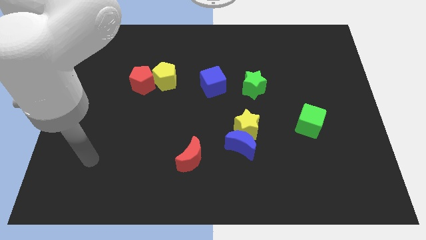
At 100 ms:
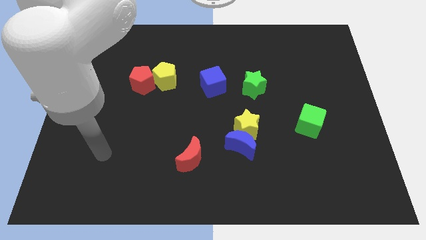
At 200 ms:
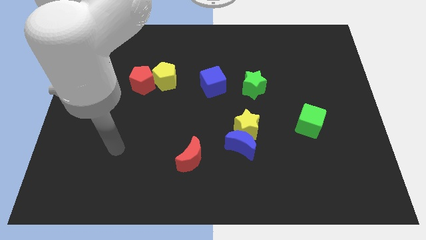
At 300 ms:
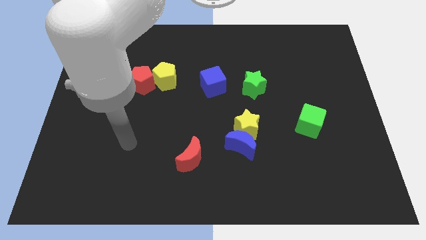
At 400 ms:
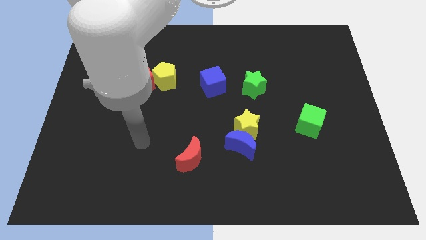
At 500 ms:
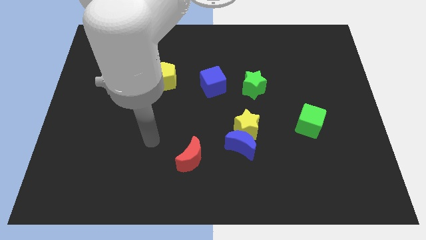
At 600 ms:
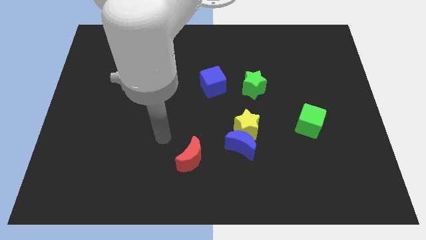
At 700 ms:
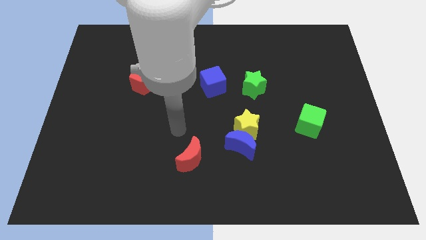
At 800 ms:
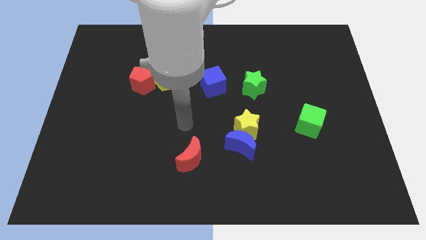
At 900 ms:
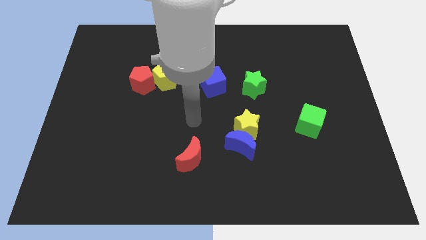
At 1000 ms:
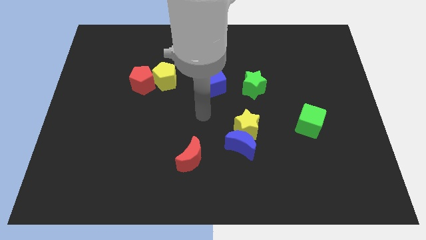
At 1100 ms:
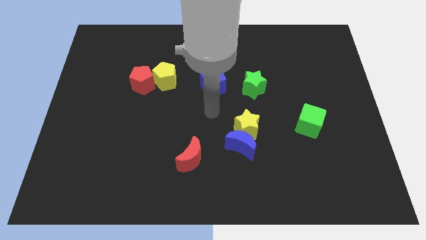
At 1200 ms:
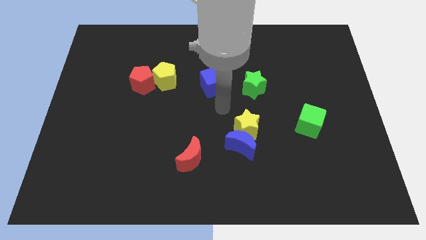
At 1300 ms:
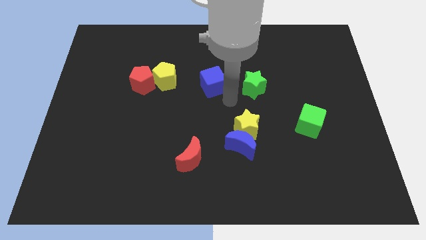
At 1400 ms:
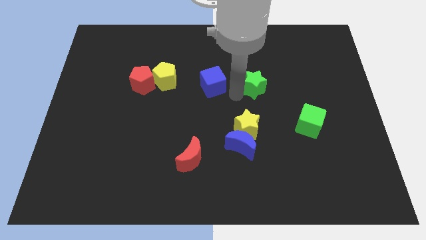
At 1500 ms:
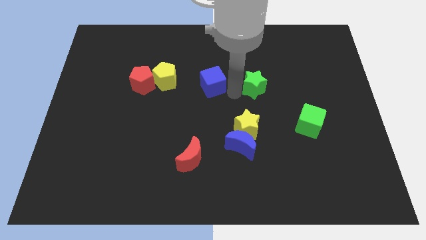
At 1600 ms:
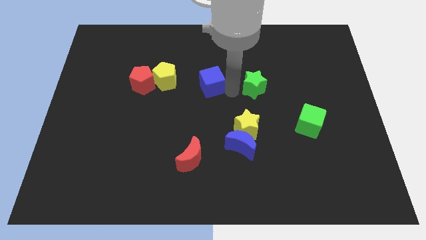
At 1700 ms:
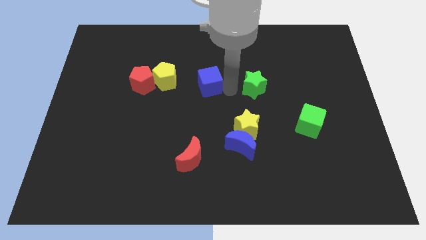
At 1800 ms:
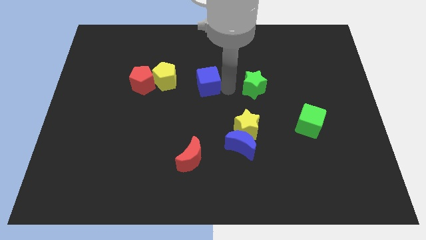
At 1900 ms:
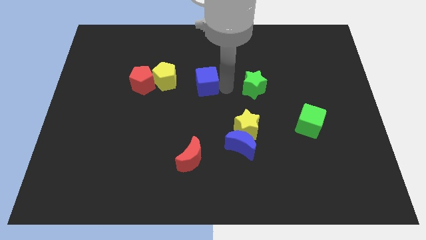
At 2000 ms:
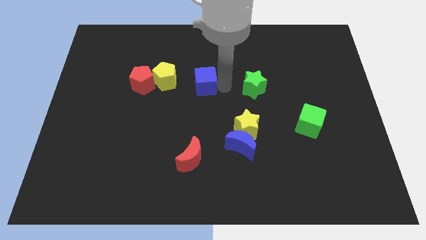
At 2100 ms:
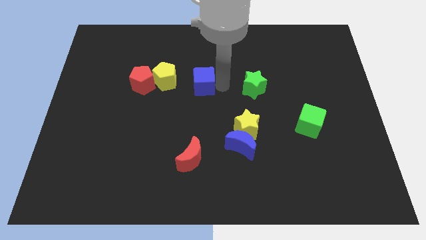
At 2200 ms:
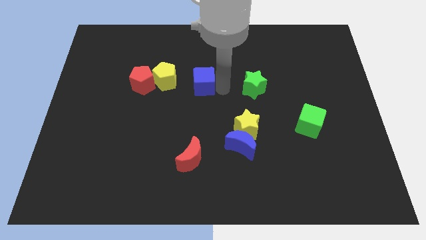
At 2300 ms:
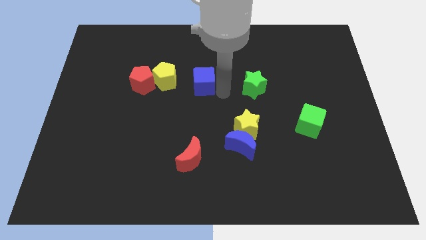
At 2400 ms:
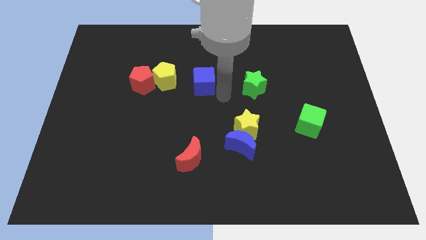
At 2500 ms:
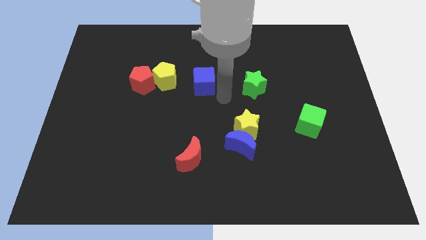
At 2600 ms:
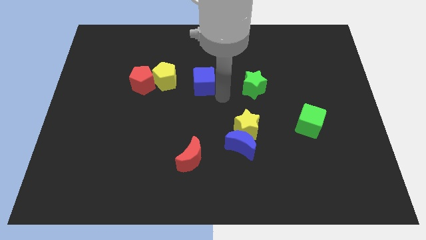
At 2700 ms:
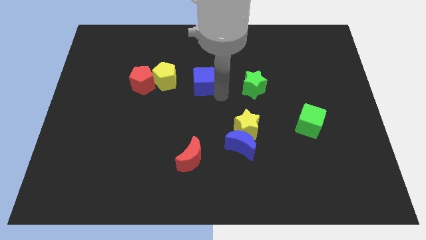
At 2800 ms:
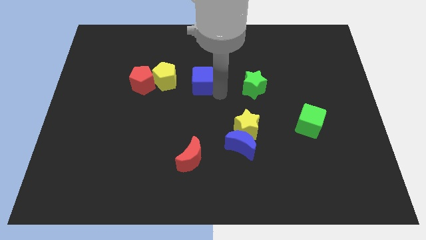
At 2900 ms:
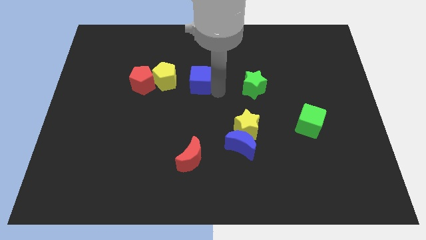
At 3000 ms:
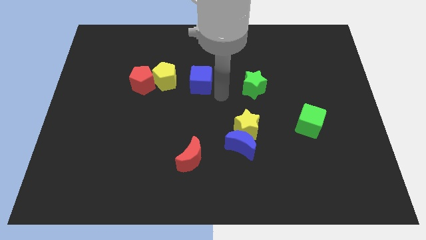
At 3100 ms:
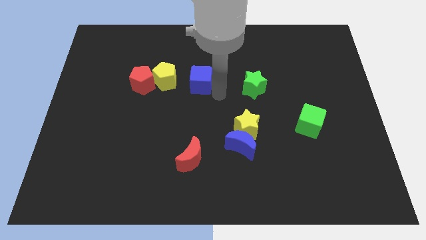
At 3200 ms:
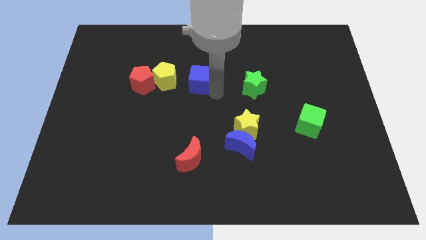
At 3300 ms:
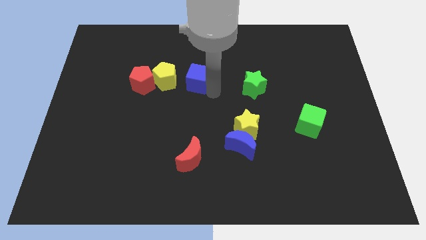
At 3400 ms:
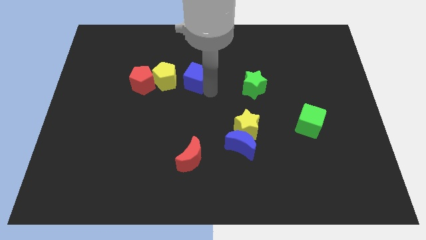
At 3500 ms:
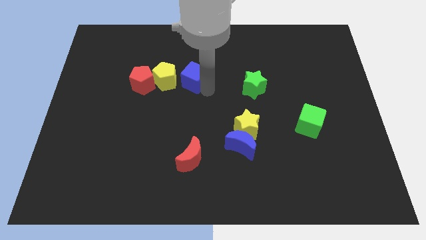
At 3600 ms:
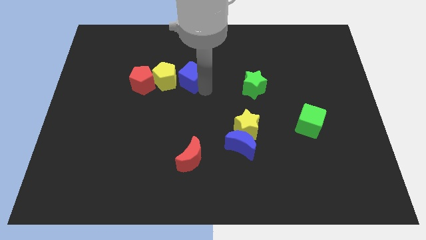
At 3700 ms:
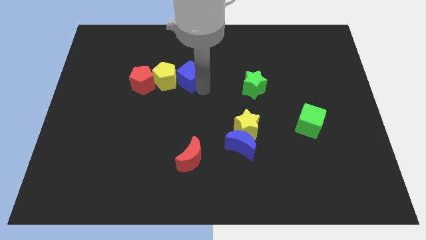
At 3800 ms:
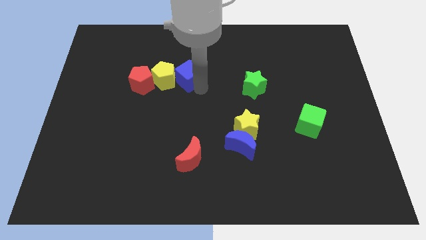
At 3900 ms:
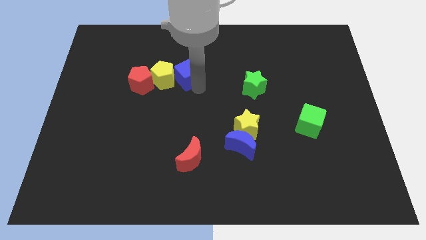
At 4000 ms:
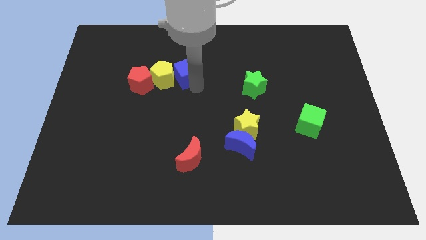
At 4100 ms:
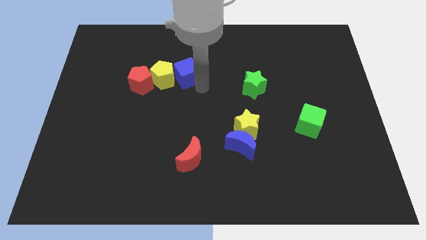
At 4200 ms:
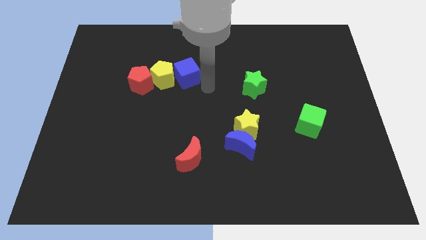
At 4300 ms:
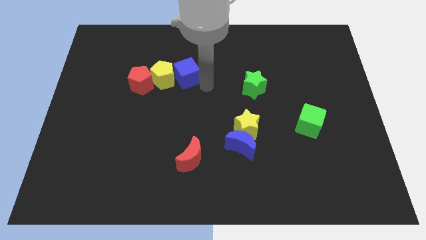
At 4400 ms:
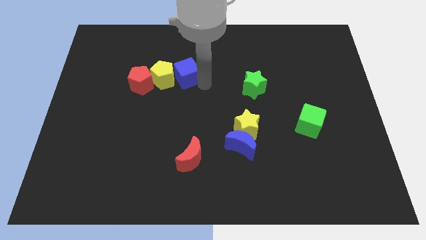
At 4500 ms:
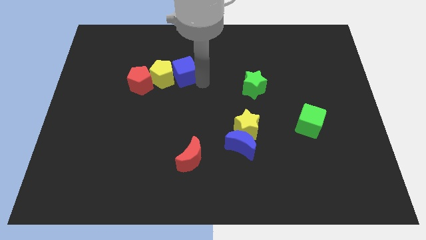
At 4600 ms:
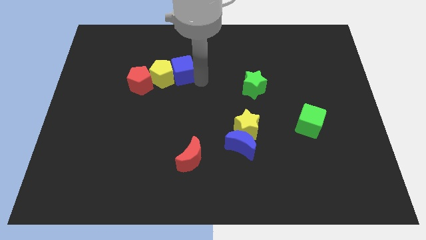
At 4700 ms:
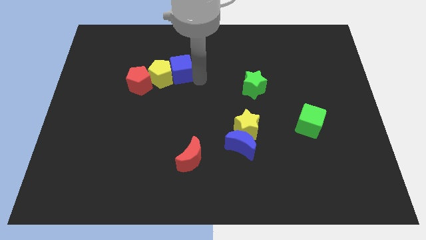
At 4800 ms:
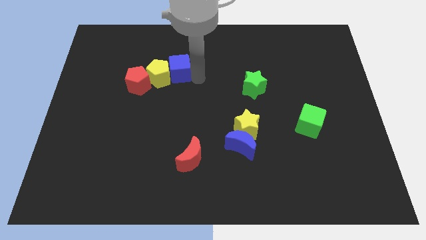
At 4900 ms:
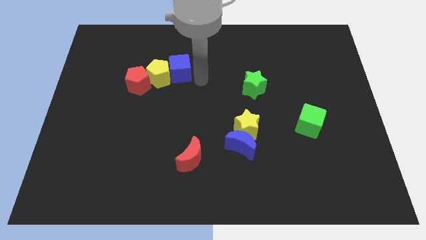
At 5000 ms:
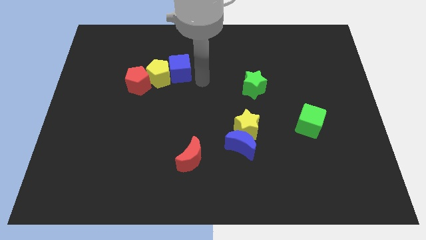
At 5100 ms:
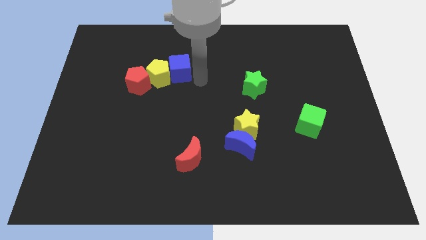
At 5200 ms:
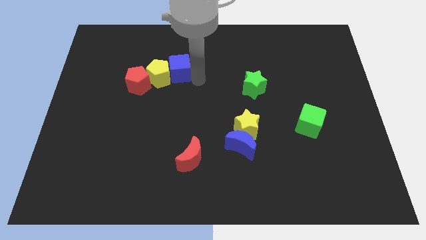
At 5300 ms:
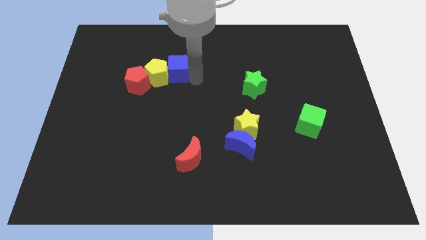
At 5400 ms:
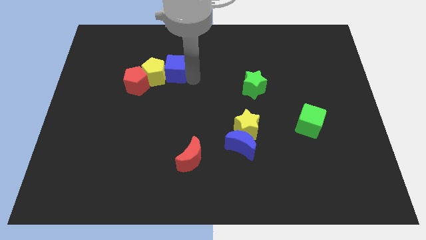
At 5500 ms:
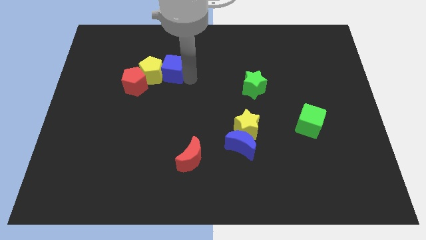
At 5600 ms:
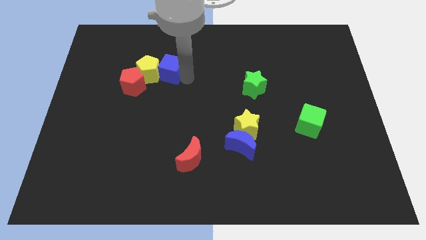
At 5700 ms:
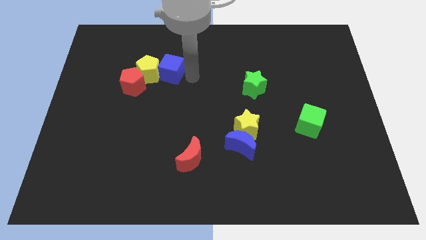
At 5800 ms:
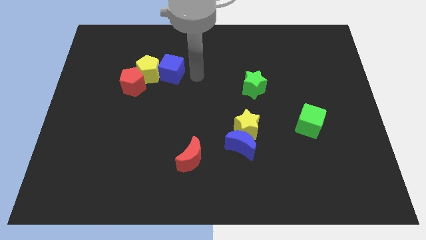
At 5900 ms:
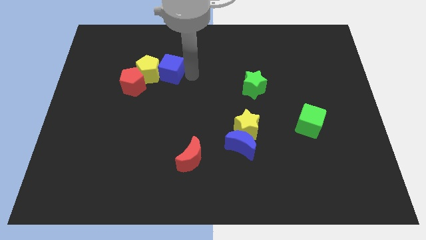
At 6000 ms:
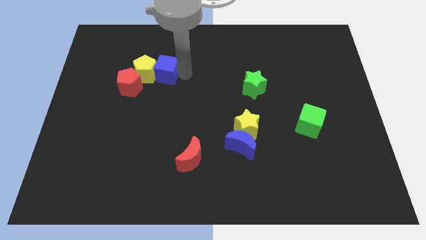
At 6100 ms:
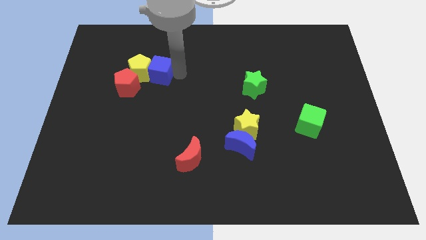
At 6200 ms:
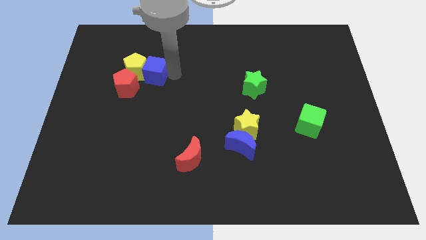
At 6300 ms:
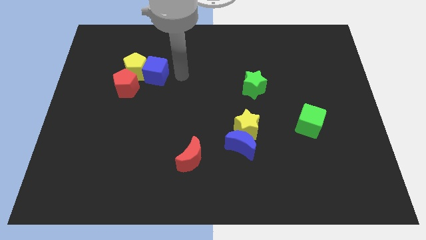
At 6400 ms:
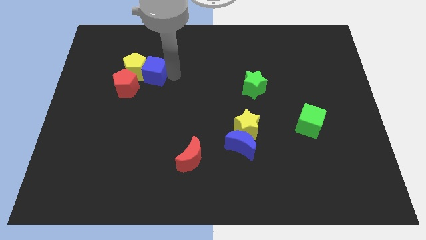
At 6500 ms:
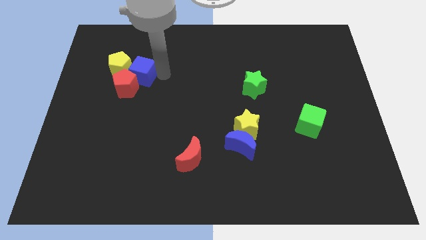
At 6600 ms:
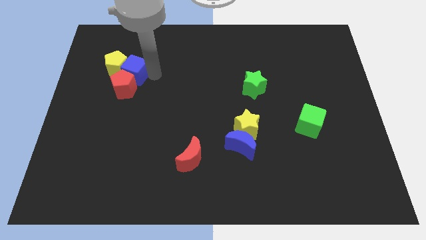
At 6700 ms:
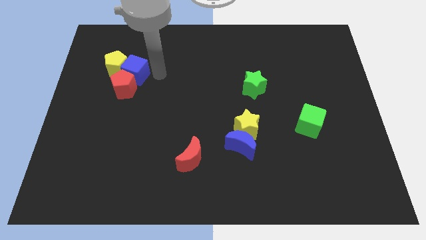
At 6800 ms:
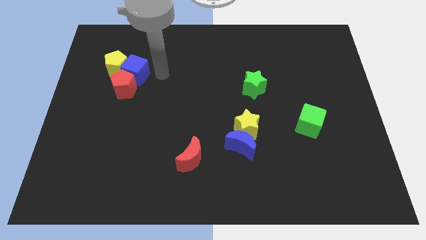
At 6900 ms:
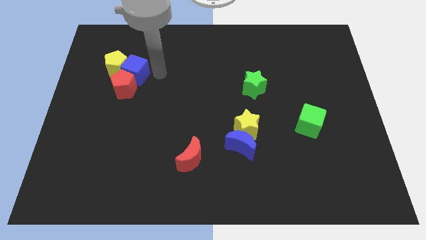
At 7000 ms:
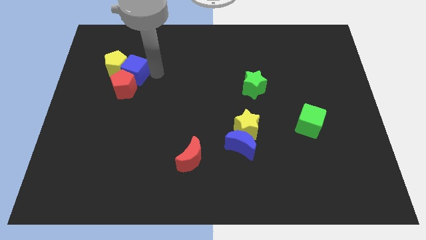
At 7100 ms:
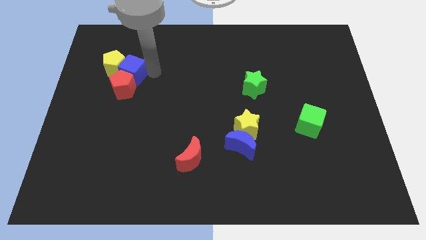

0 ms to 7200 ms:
slide the blue cube to the top left side of the red pentagon

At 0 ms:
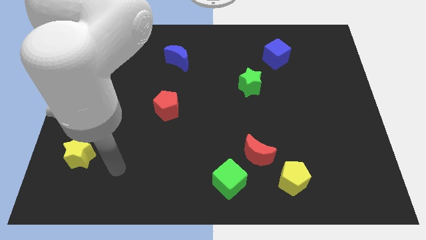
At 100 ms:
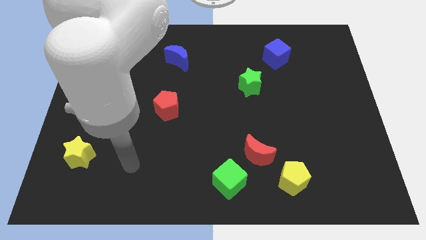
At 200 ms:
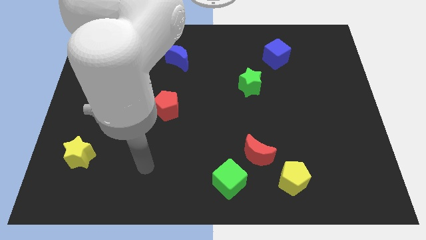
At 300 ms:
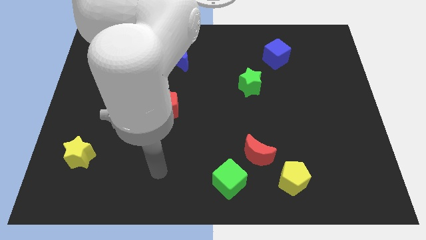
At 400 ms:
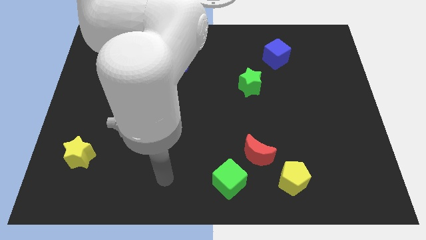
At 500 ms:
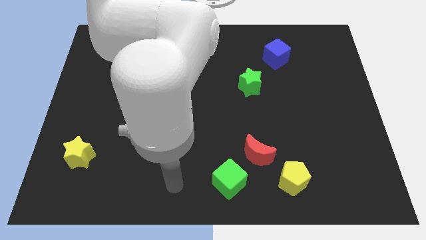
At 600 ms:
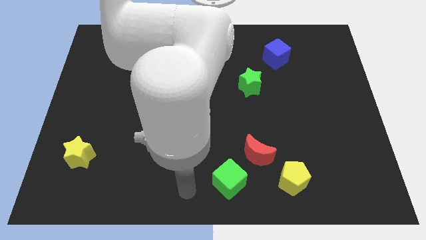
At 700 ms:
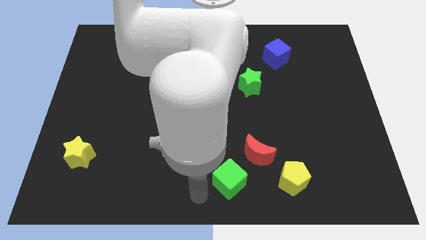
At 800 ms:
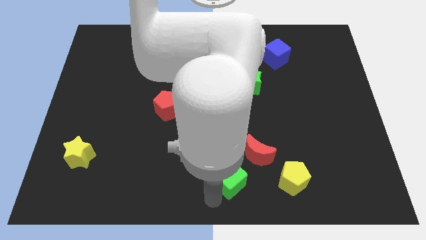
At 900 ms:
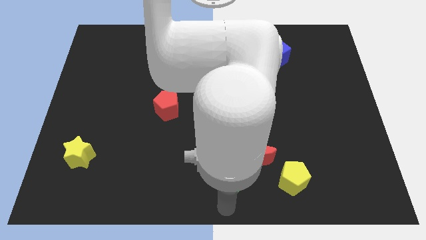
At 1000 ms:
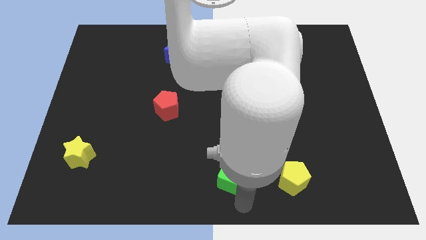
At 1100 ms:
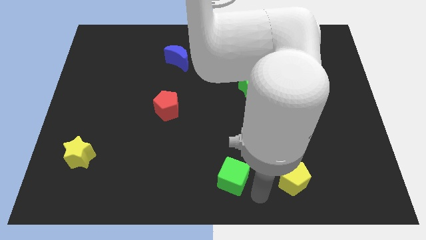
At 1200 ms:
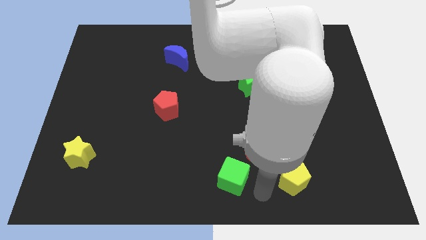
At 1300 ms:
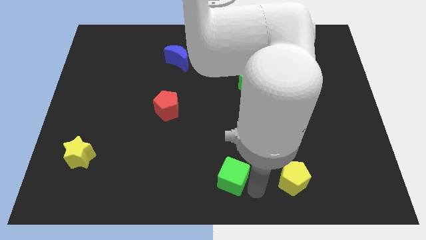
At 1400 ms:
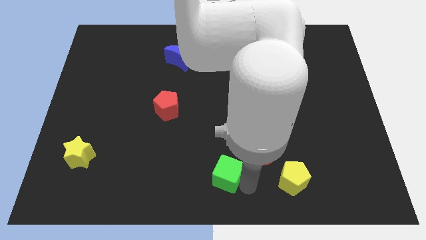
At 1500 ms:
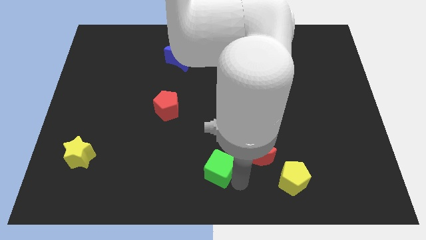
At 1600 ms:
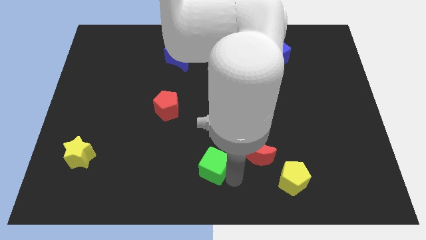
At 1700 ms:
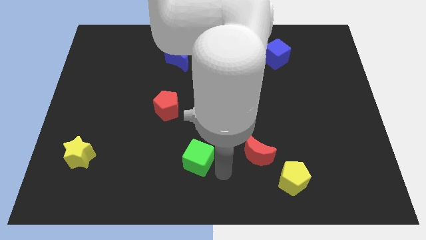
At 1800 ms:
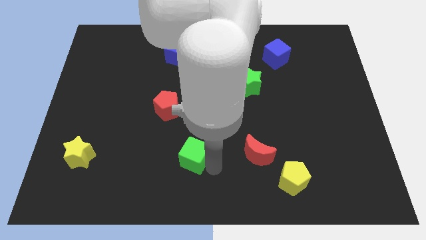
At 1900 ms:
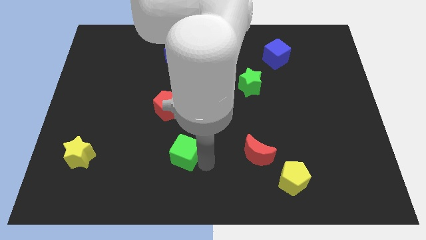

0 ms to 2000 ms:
slide the green cube below the red pentagon
